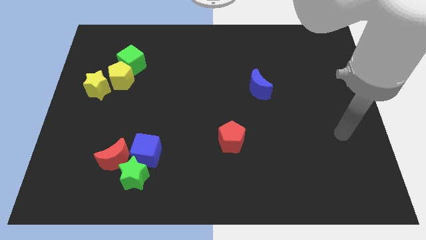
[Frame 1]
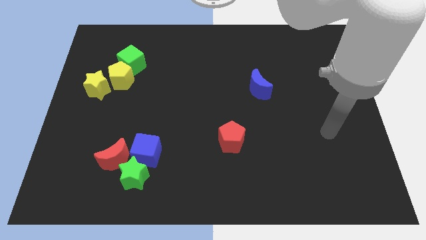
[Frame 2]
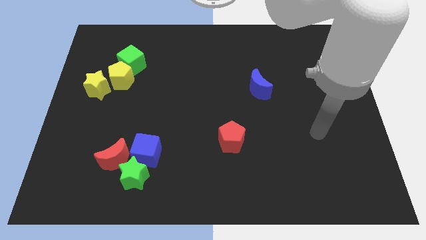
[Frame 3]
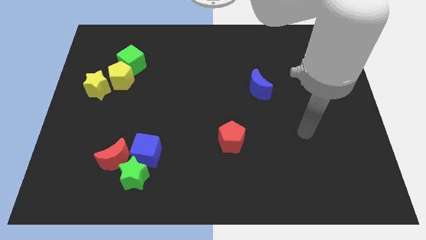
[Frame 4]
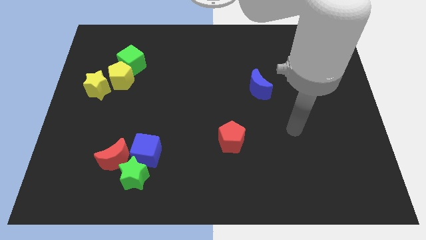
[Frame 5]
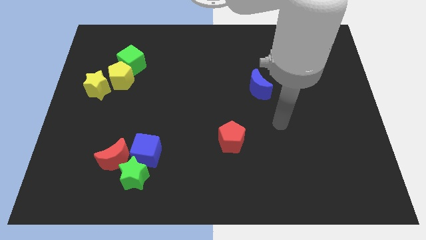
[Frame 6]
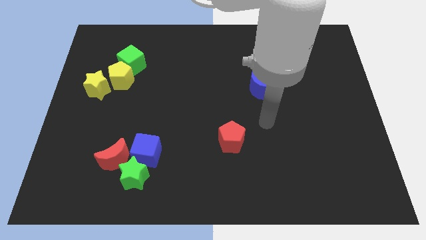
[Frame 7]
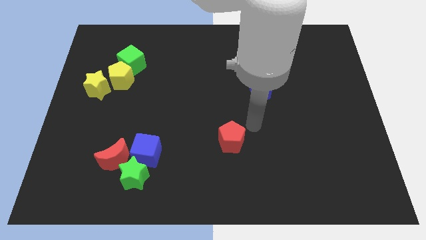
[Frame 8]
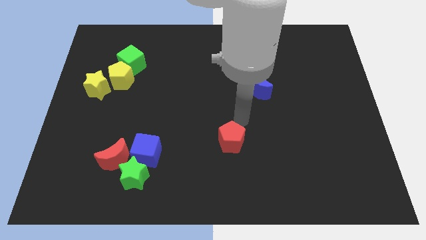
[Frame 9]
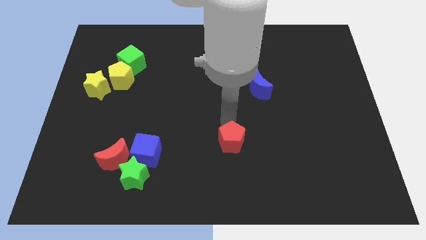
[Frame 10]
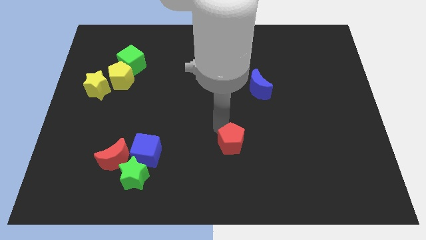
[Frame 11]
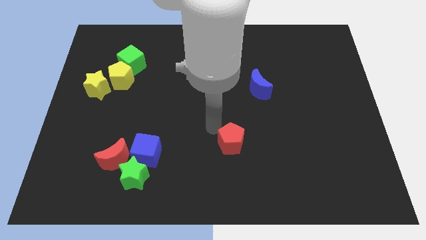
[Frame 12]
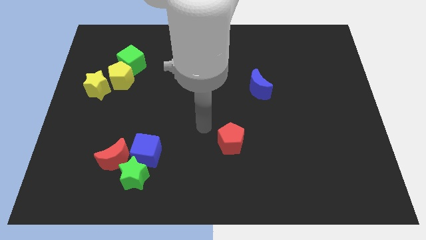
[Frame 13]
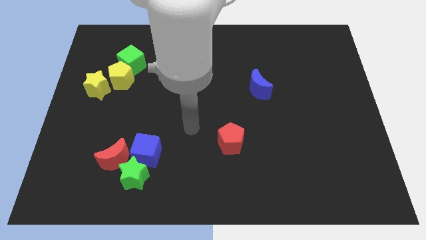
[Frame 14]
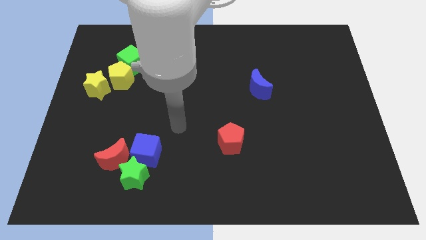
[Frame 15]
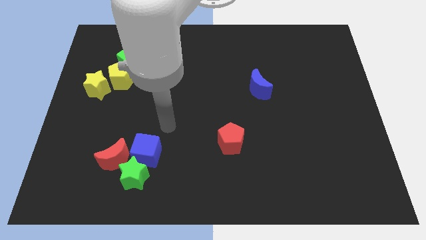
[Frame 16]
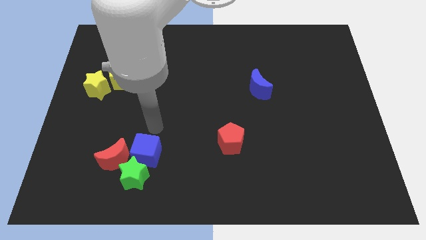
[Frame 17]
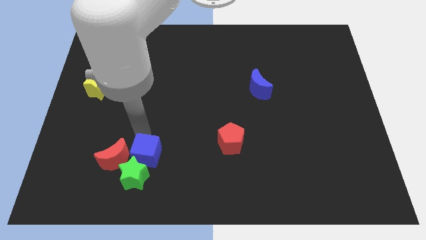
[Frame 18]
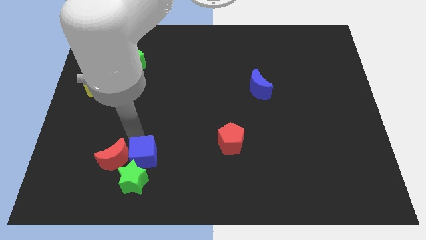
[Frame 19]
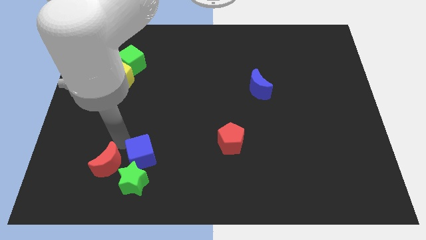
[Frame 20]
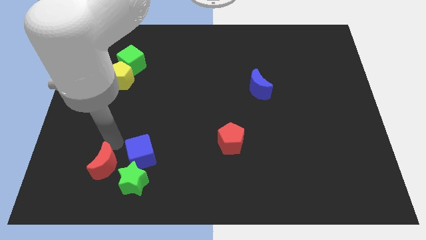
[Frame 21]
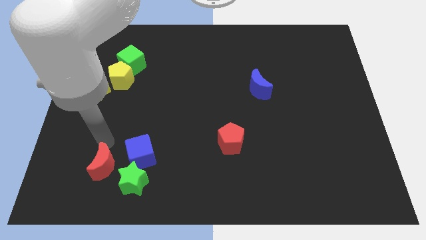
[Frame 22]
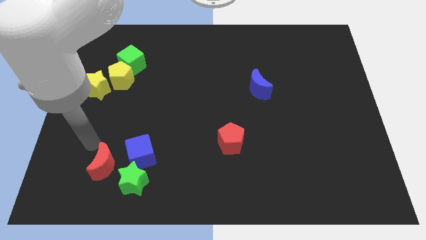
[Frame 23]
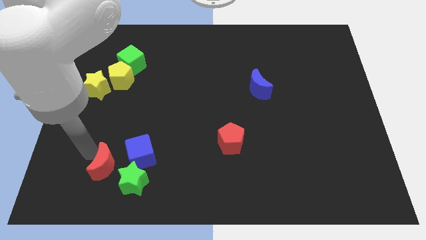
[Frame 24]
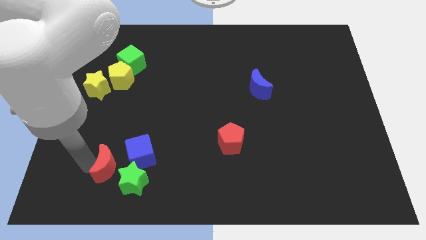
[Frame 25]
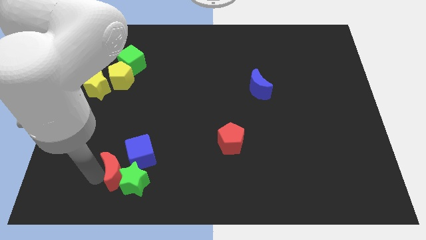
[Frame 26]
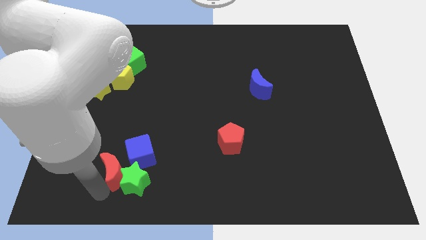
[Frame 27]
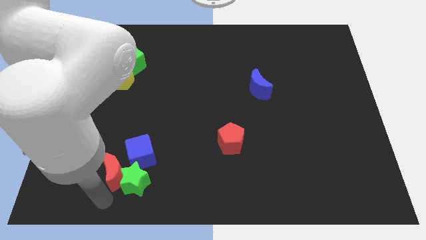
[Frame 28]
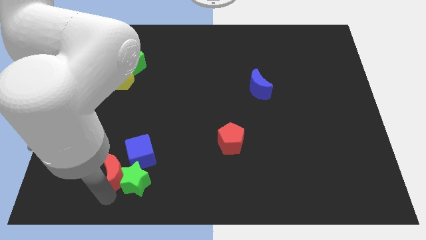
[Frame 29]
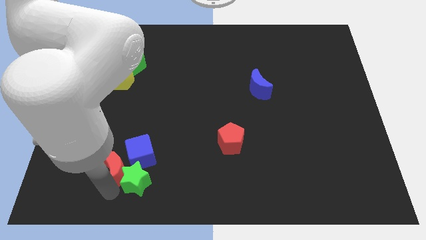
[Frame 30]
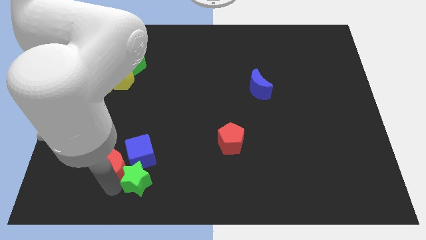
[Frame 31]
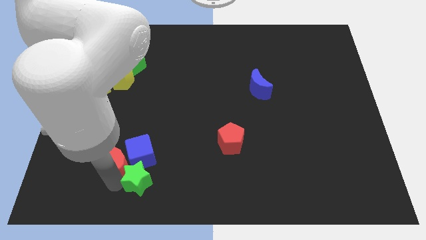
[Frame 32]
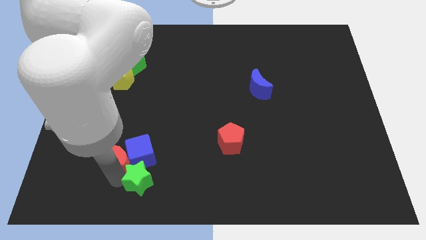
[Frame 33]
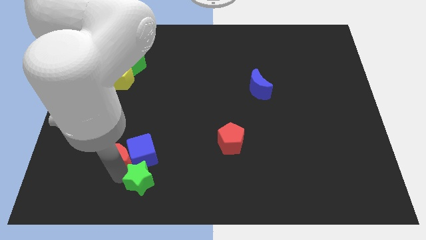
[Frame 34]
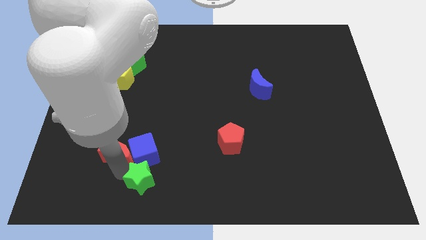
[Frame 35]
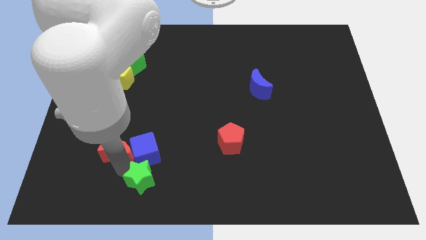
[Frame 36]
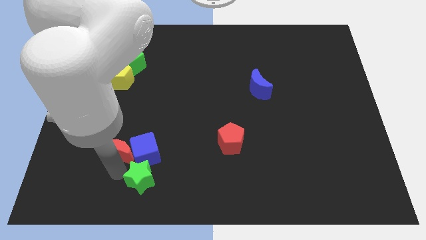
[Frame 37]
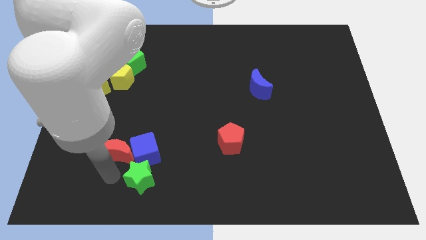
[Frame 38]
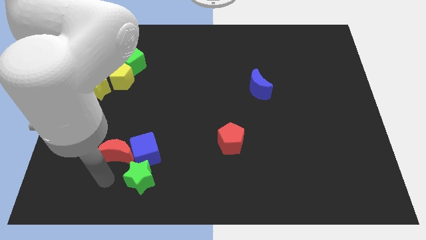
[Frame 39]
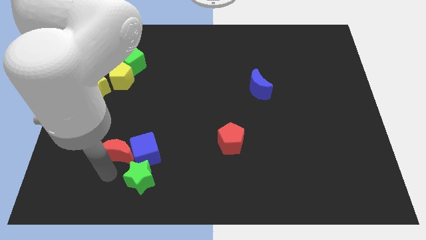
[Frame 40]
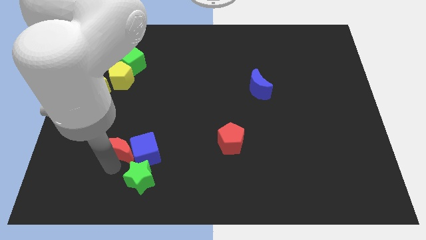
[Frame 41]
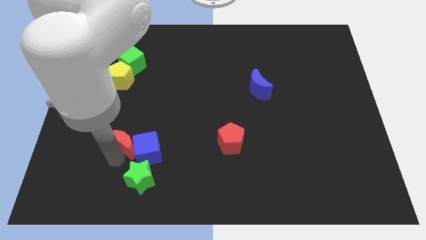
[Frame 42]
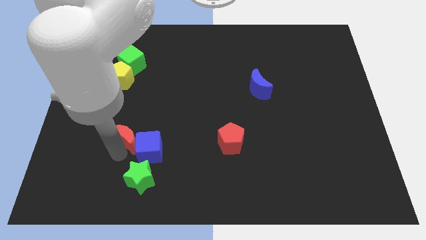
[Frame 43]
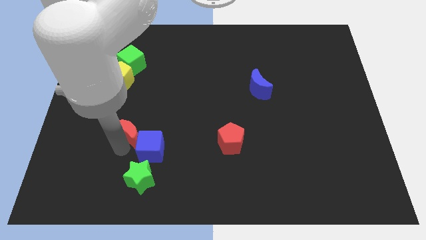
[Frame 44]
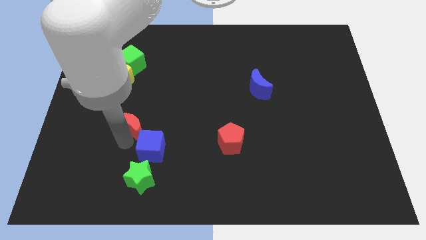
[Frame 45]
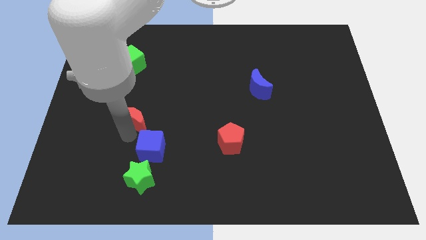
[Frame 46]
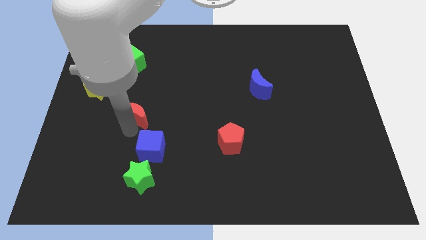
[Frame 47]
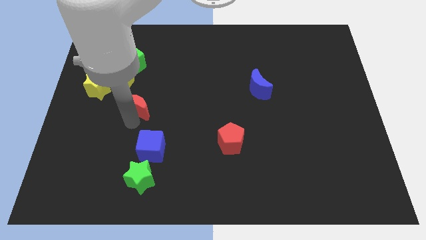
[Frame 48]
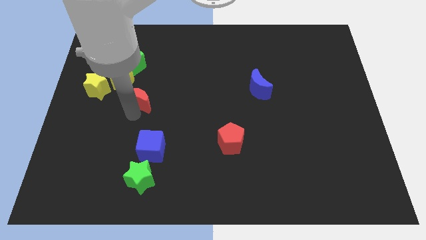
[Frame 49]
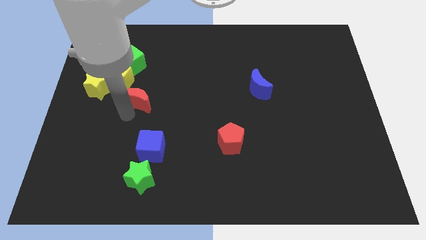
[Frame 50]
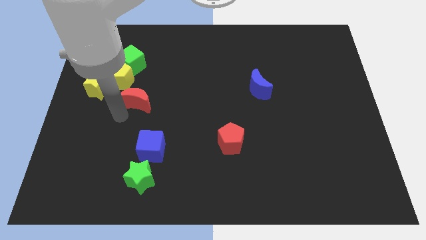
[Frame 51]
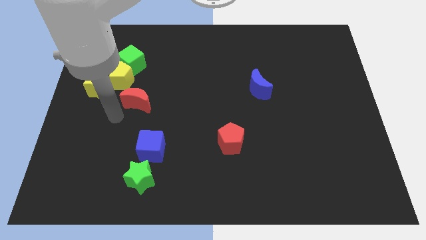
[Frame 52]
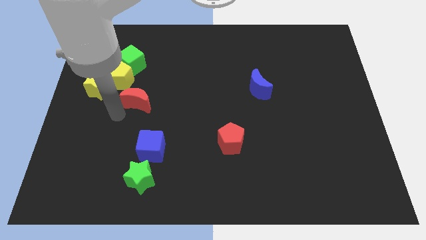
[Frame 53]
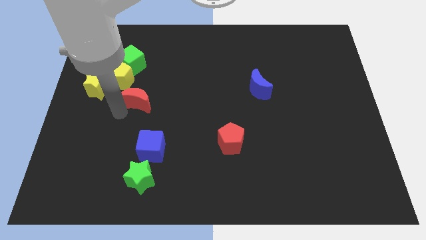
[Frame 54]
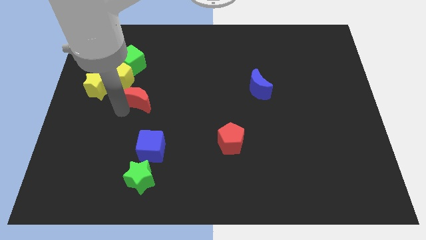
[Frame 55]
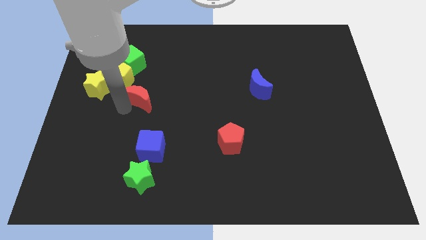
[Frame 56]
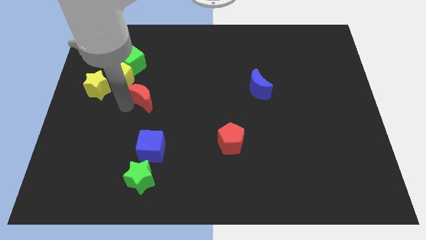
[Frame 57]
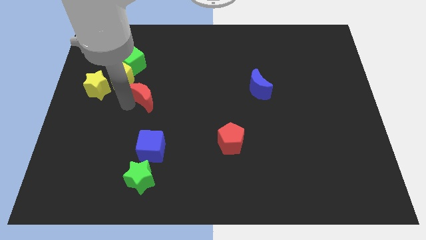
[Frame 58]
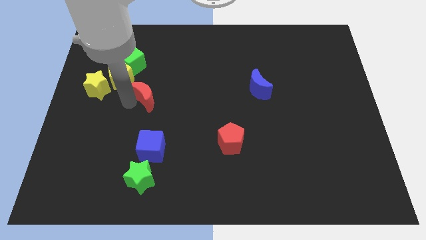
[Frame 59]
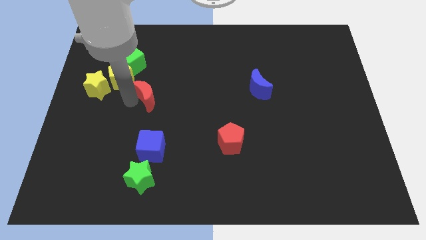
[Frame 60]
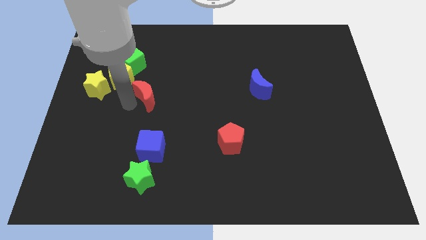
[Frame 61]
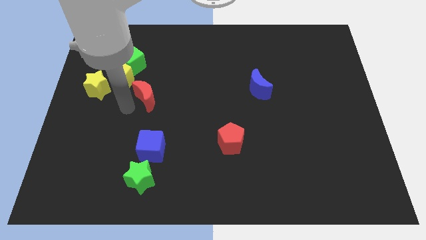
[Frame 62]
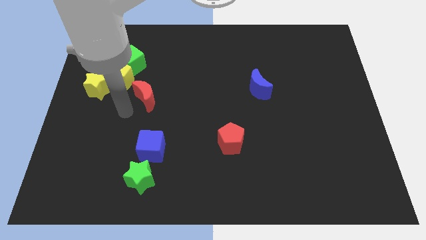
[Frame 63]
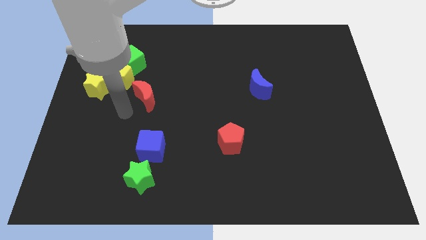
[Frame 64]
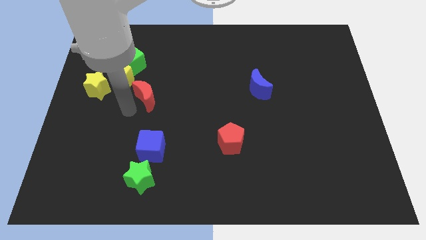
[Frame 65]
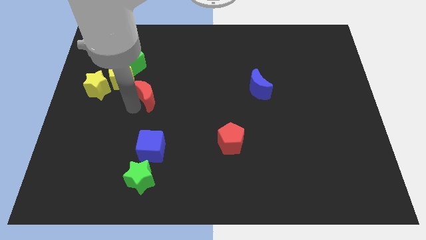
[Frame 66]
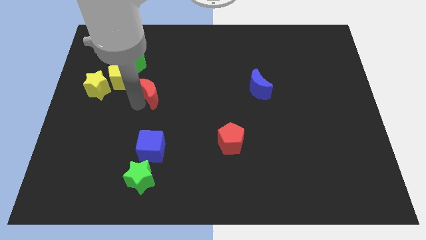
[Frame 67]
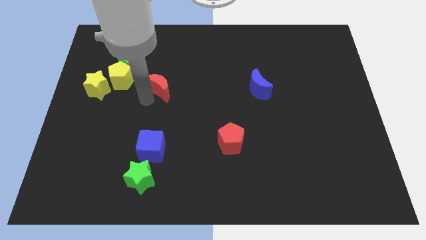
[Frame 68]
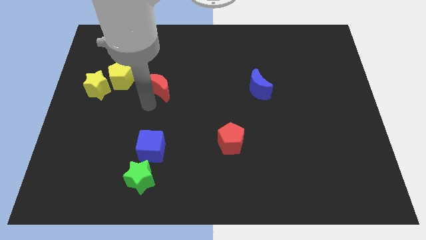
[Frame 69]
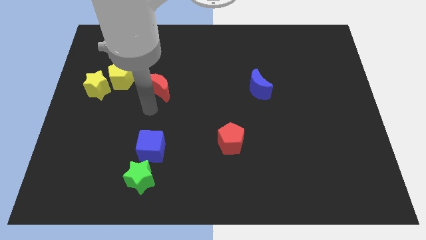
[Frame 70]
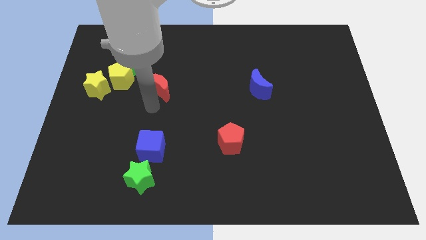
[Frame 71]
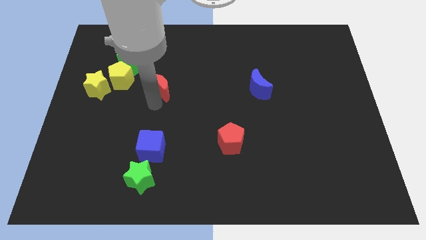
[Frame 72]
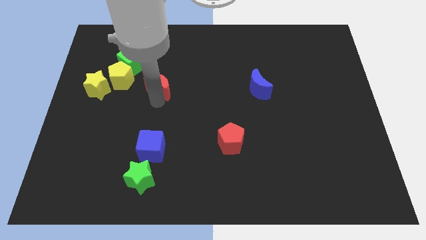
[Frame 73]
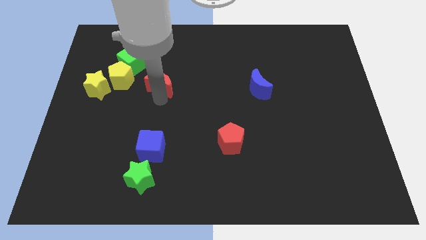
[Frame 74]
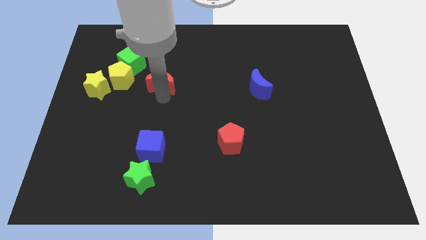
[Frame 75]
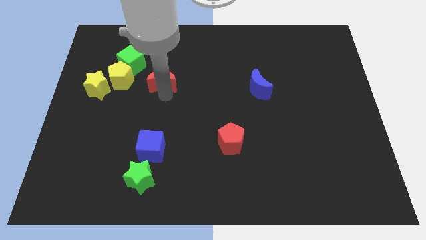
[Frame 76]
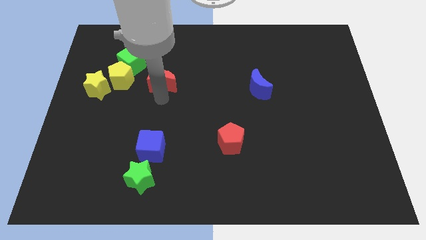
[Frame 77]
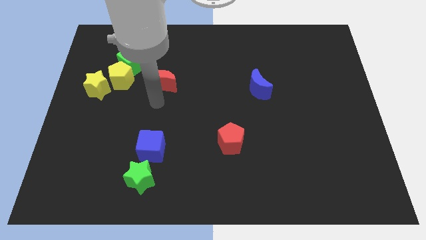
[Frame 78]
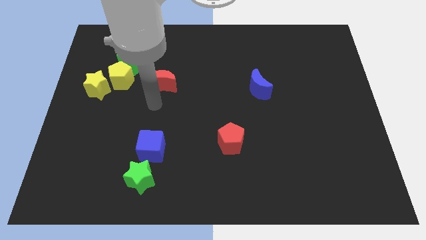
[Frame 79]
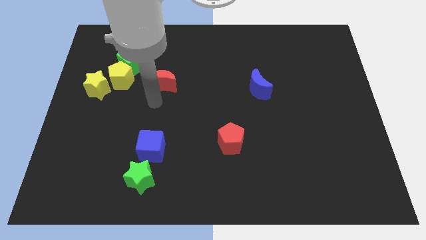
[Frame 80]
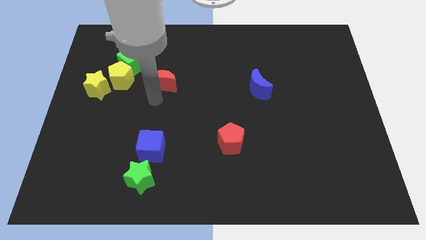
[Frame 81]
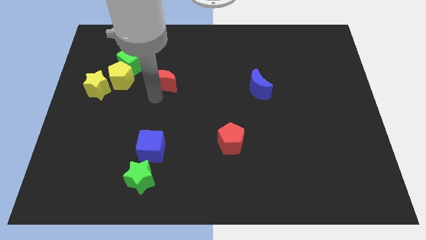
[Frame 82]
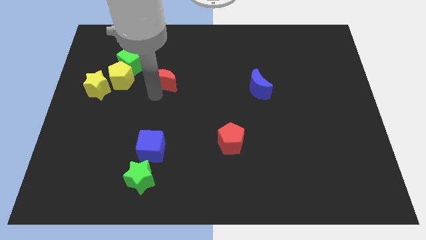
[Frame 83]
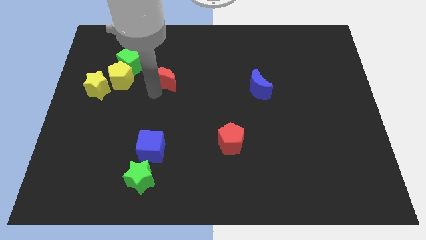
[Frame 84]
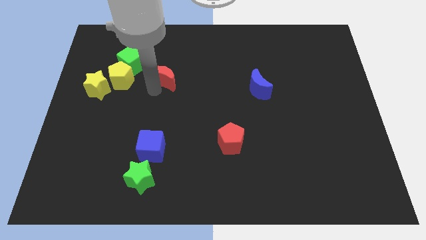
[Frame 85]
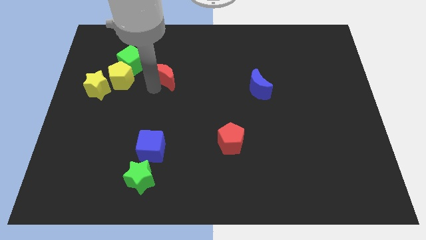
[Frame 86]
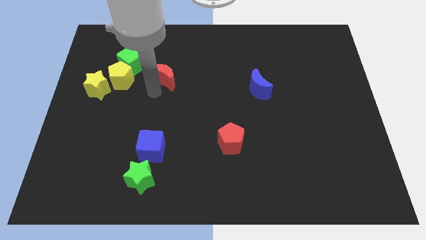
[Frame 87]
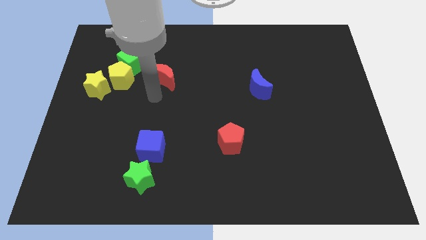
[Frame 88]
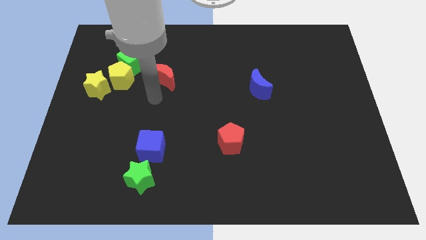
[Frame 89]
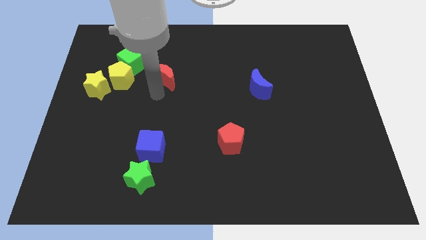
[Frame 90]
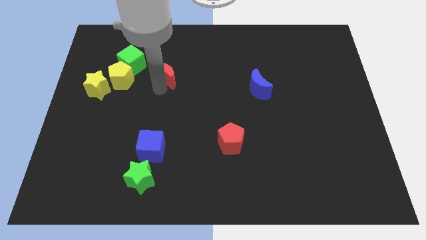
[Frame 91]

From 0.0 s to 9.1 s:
put the red moon to the right of the green cube
